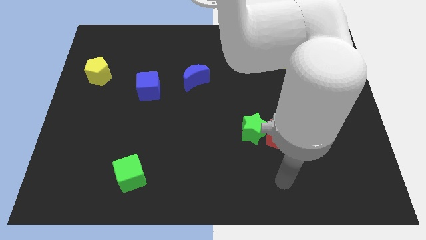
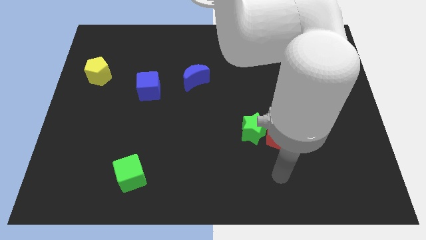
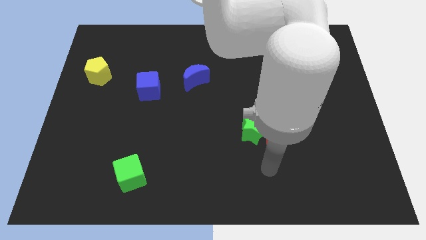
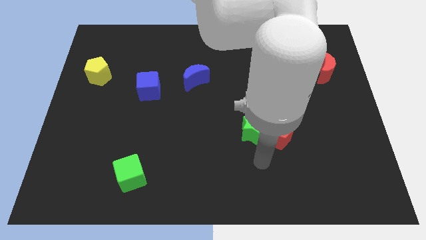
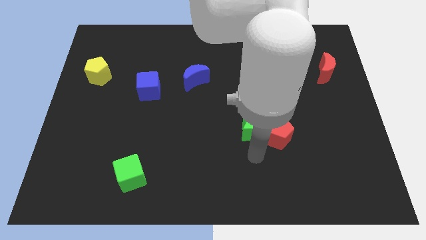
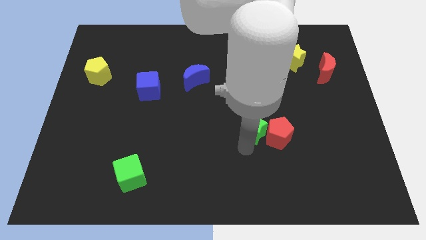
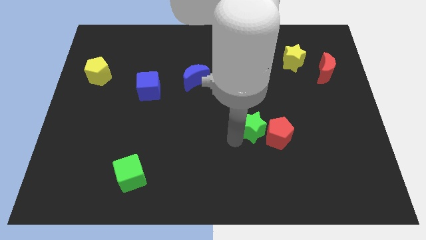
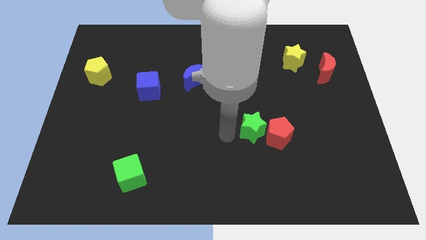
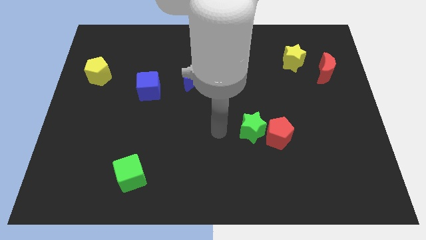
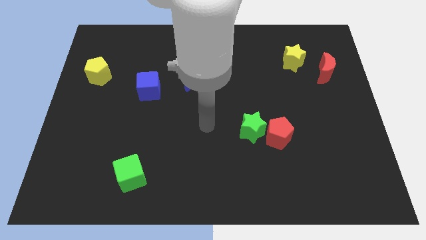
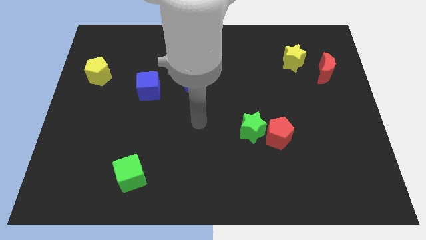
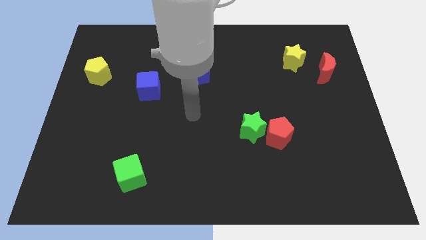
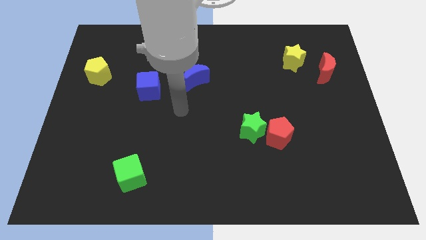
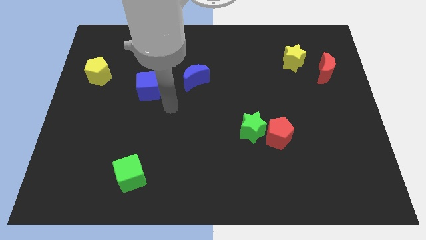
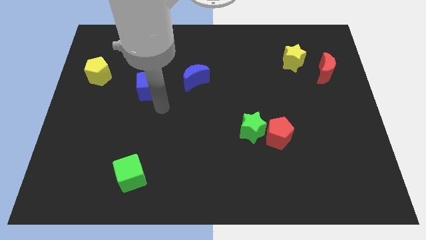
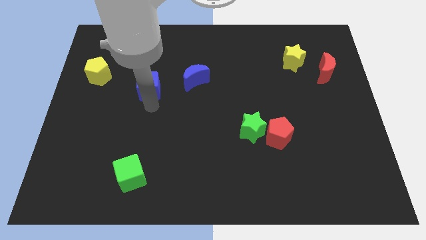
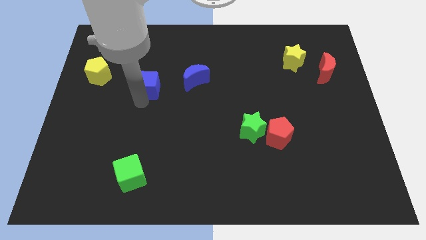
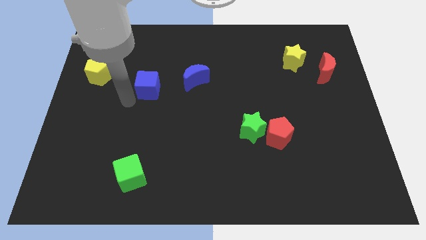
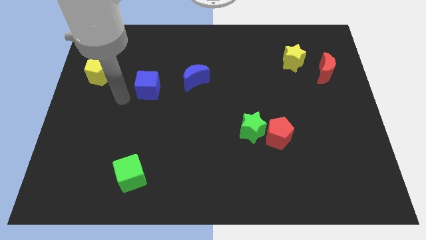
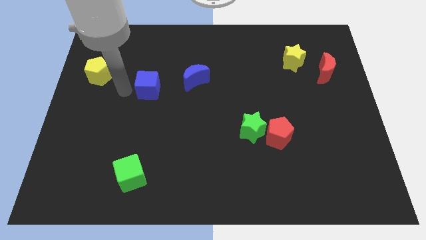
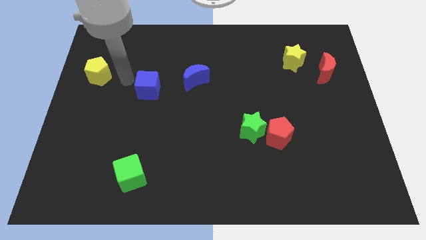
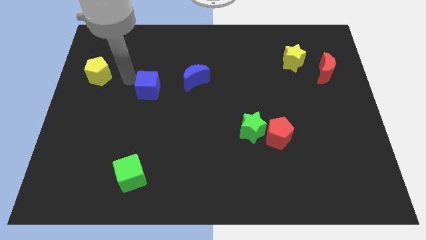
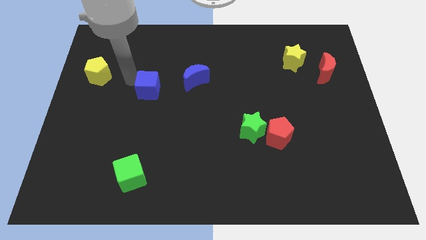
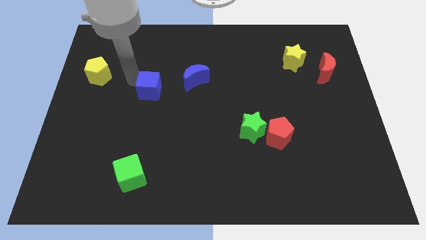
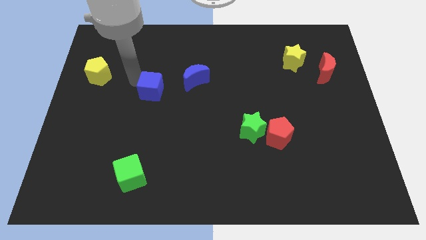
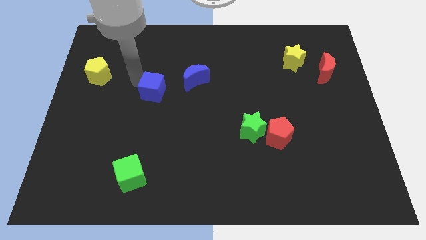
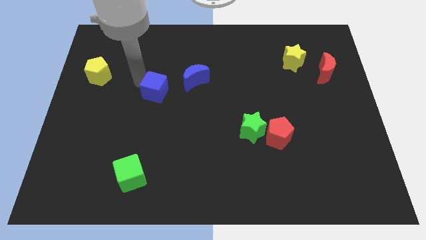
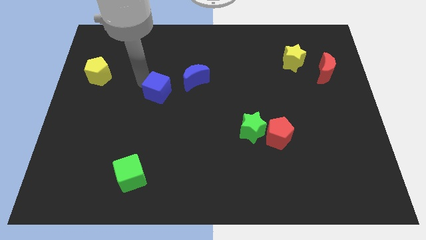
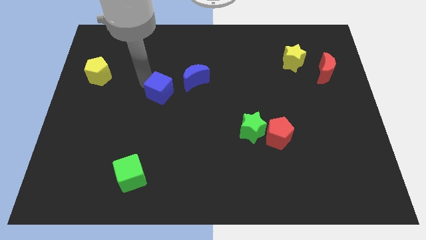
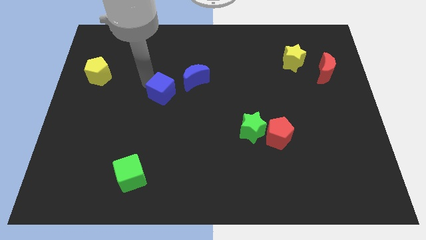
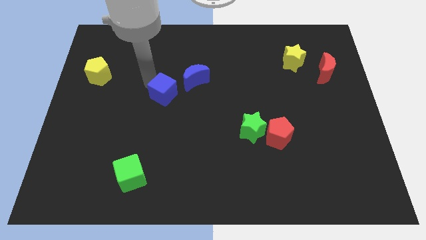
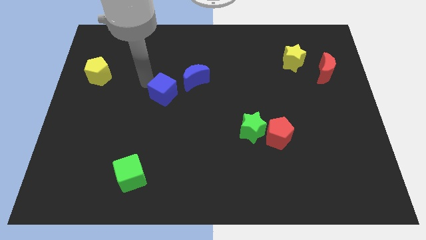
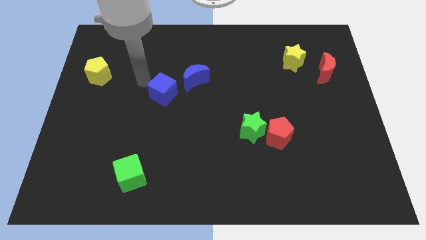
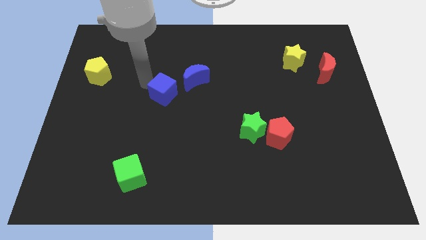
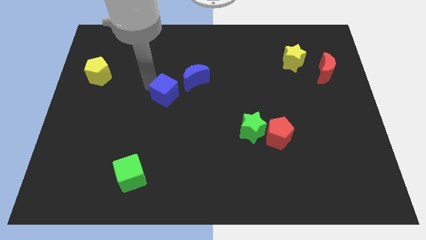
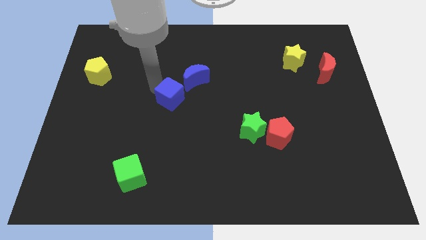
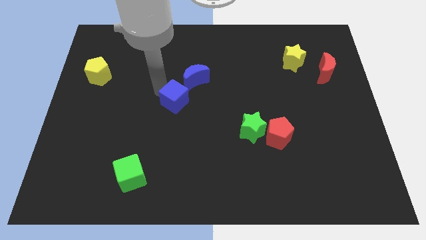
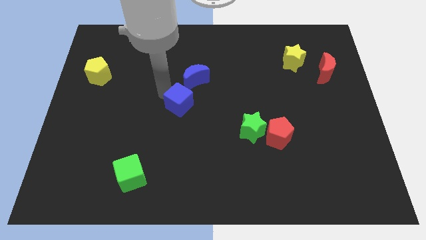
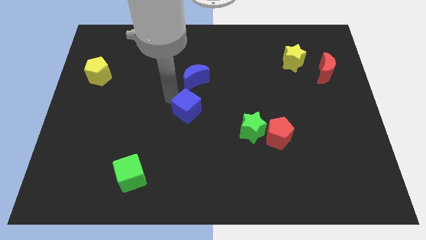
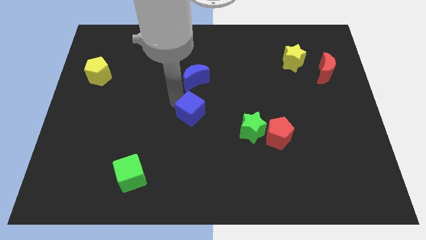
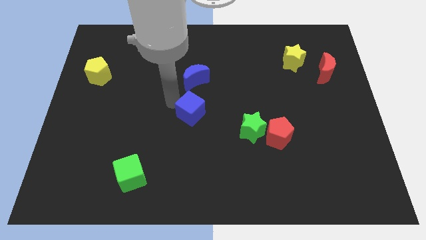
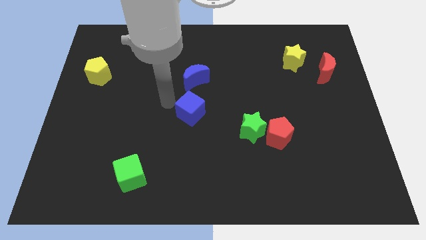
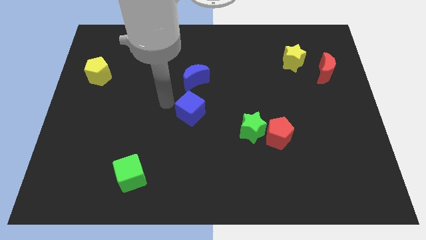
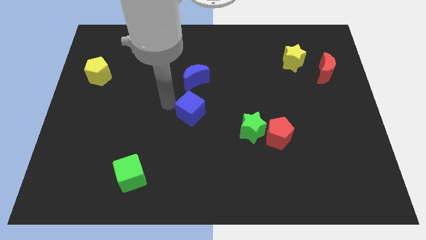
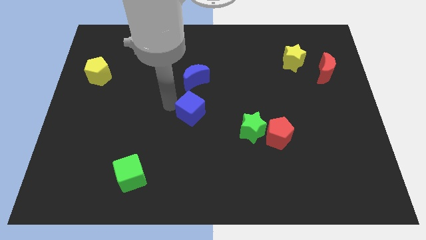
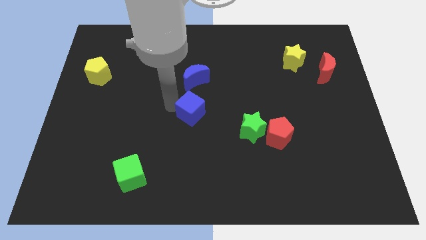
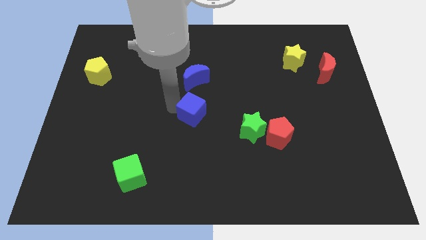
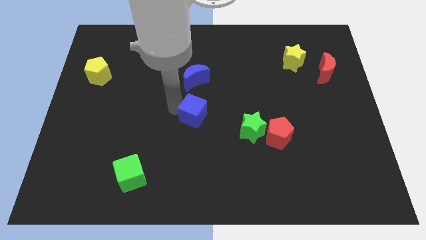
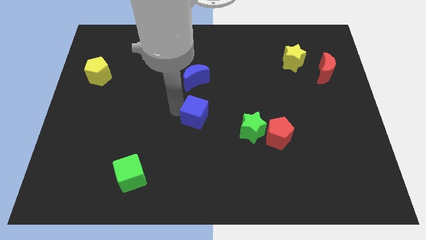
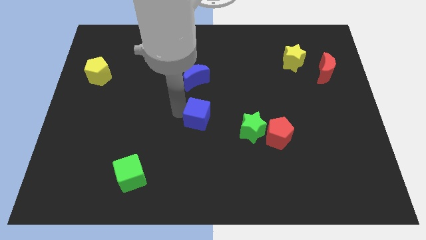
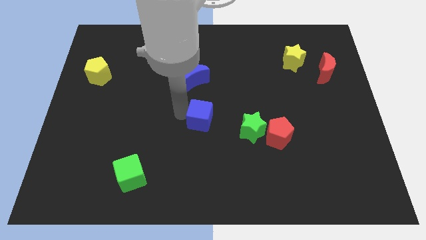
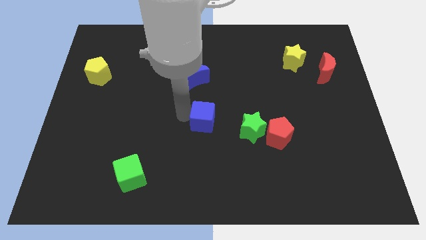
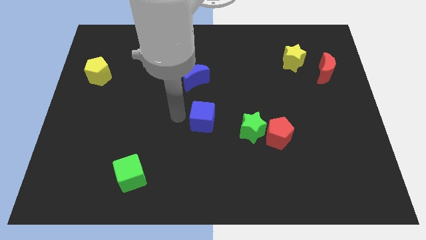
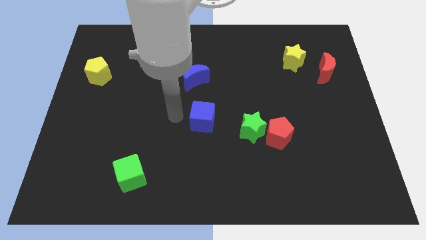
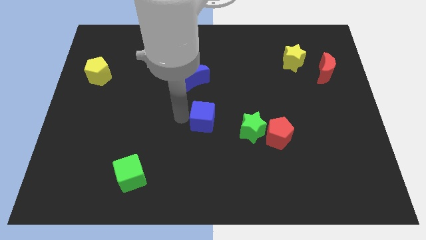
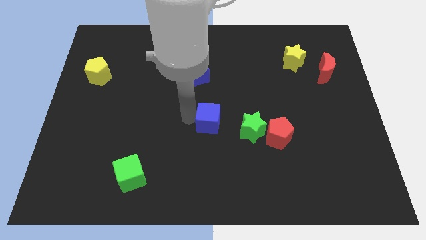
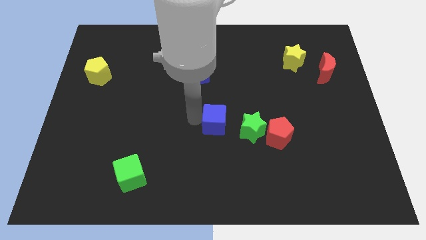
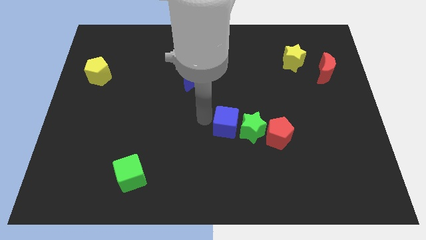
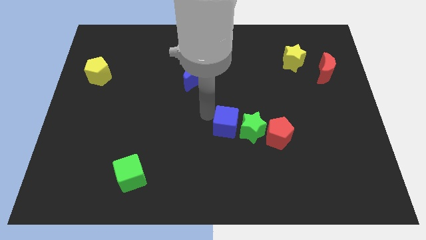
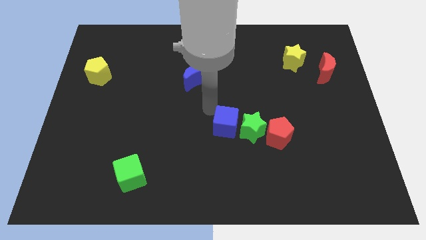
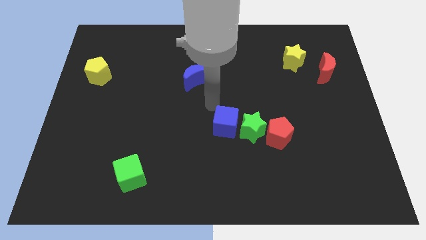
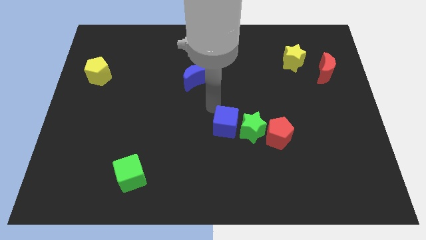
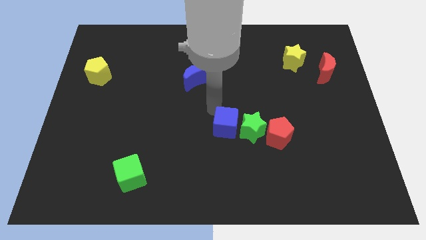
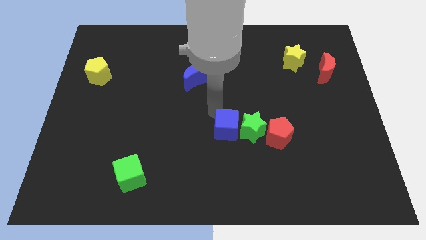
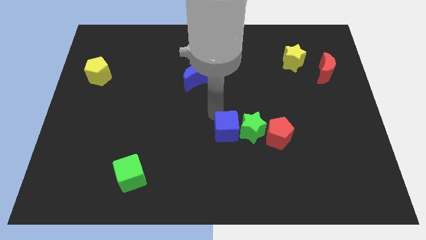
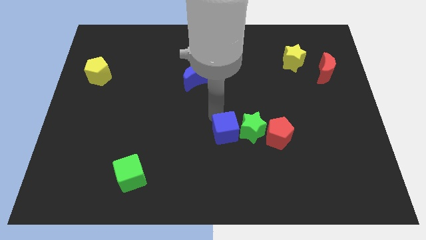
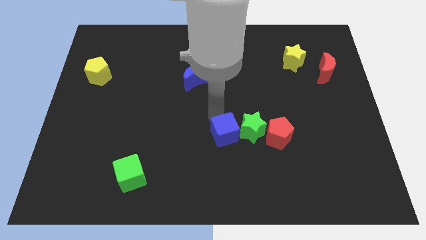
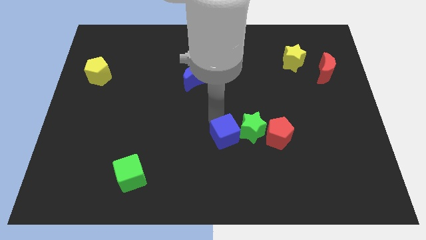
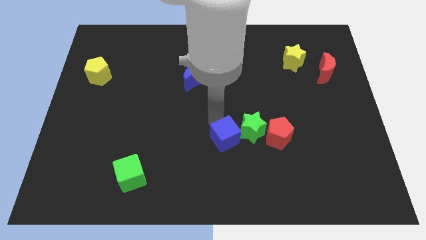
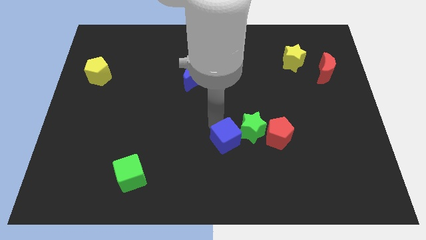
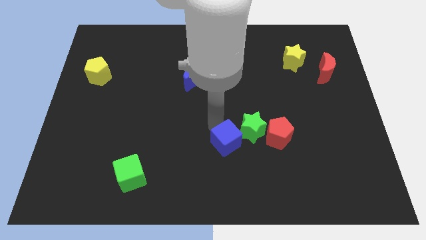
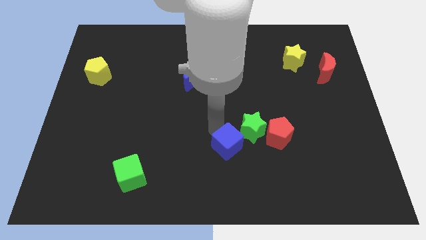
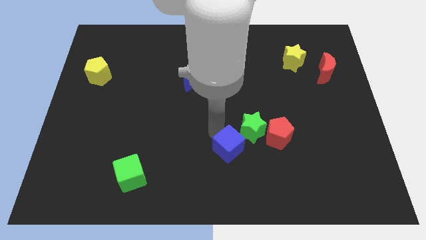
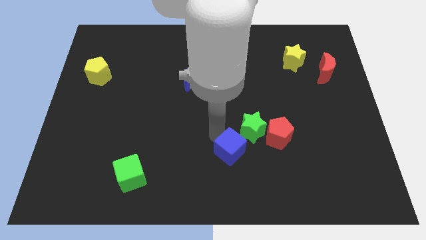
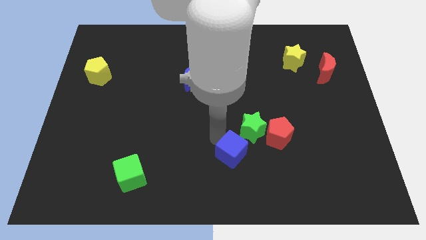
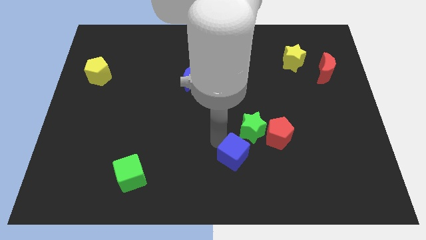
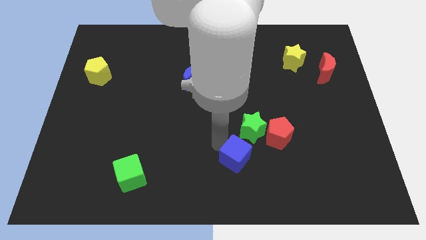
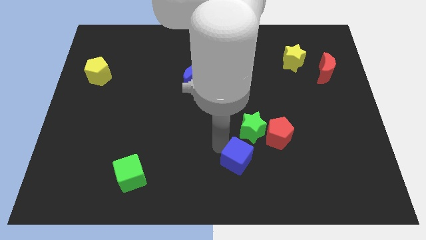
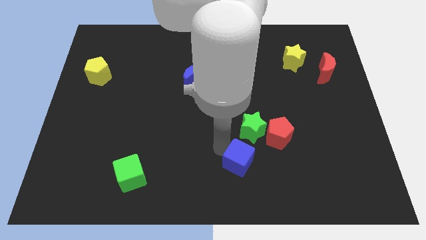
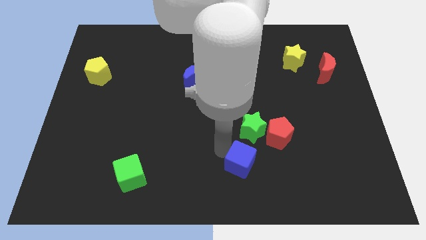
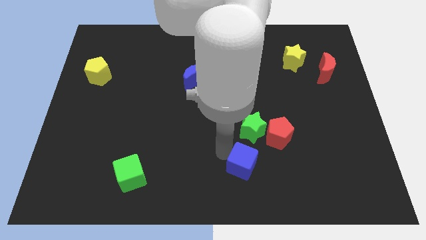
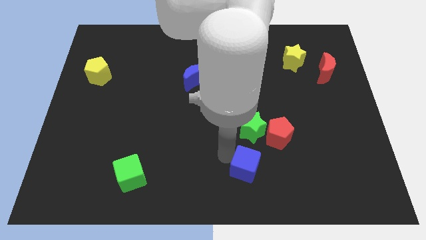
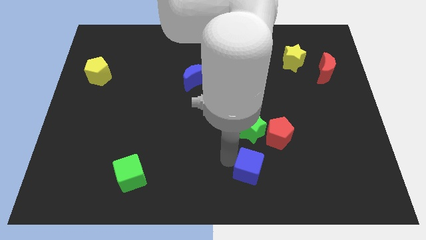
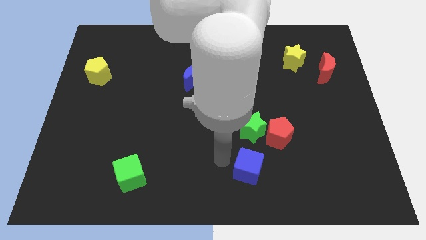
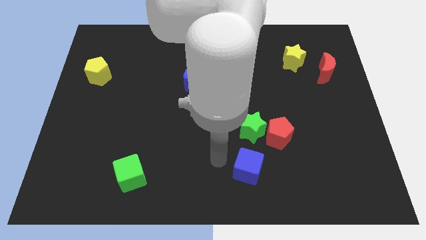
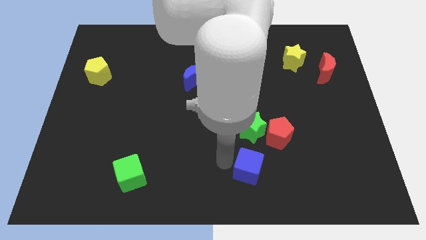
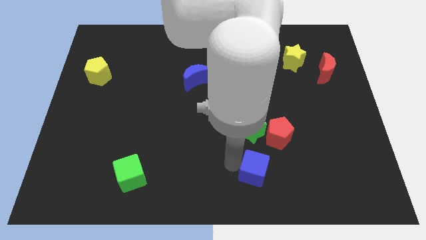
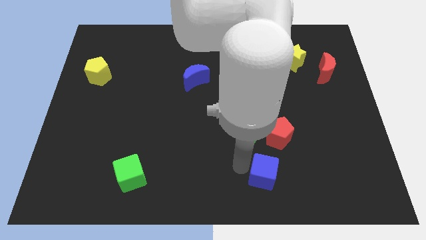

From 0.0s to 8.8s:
move the blue cube below the red pentagon
